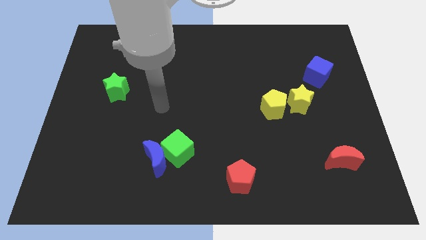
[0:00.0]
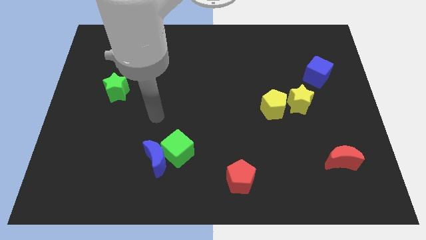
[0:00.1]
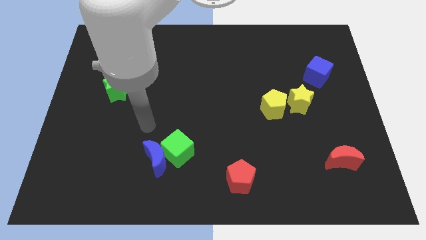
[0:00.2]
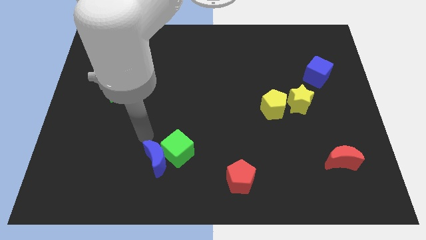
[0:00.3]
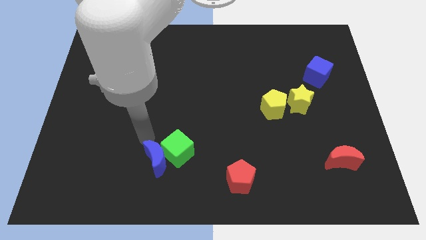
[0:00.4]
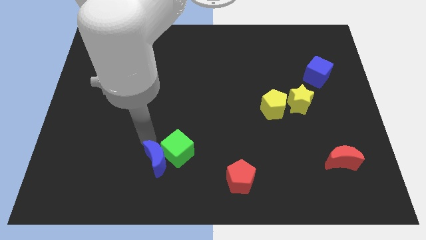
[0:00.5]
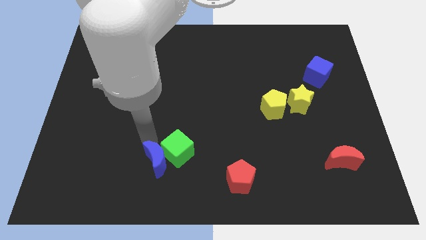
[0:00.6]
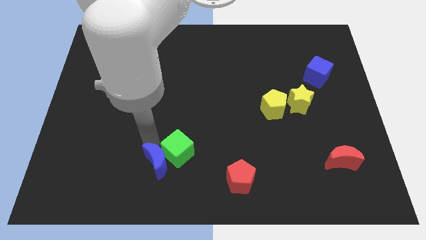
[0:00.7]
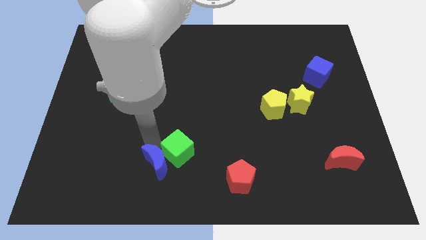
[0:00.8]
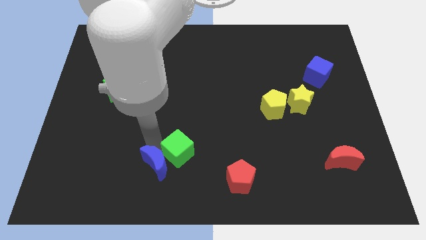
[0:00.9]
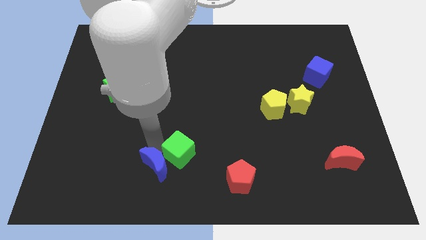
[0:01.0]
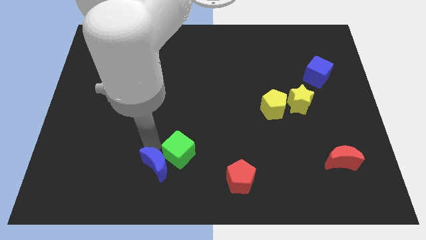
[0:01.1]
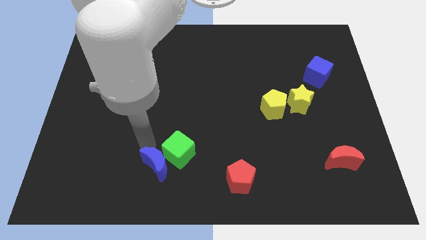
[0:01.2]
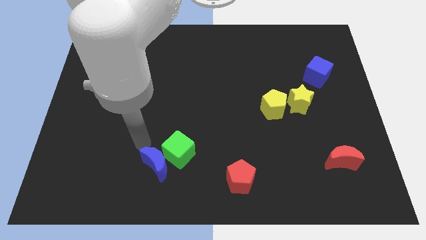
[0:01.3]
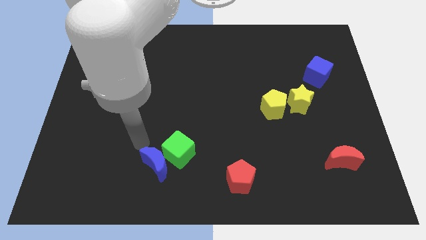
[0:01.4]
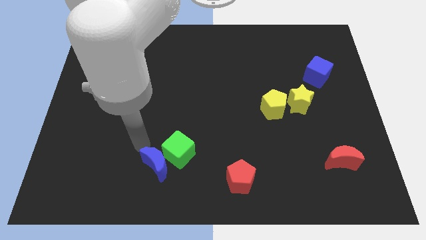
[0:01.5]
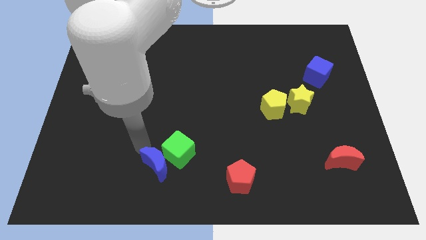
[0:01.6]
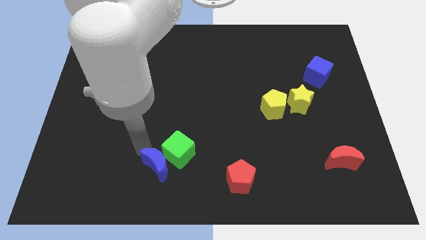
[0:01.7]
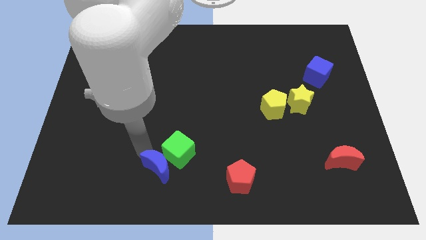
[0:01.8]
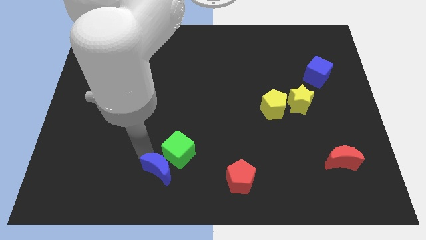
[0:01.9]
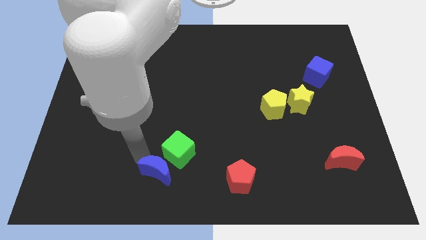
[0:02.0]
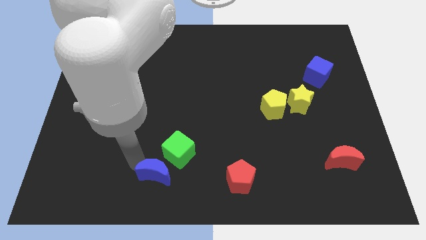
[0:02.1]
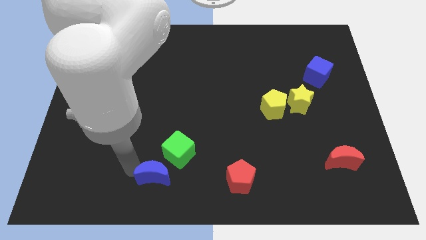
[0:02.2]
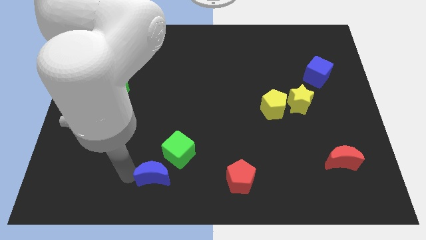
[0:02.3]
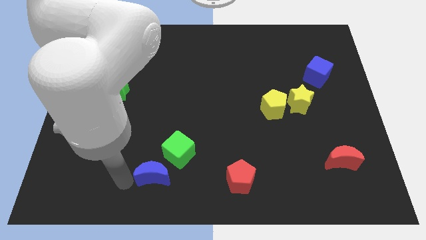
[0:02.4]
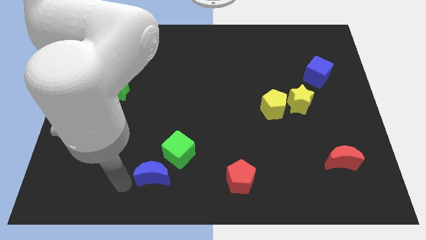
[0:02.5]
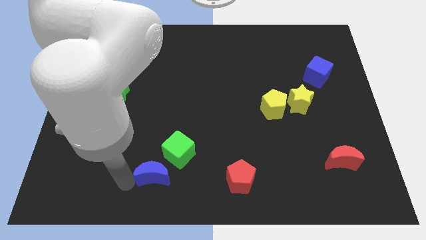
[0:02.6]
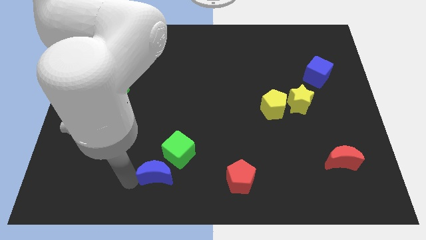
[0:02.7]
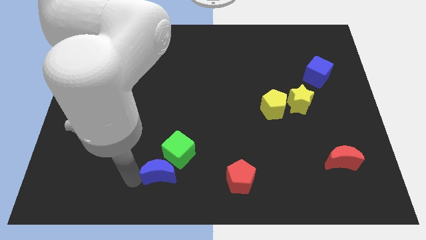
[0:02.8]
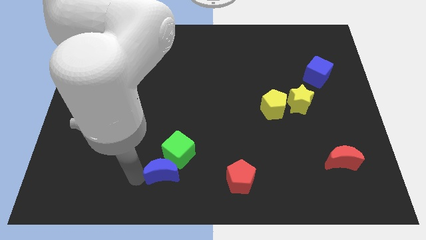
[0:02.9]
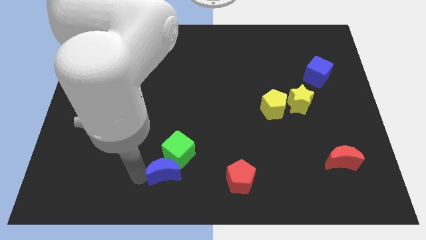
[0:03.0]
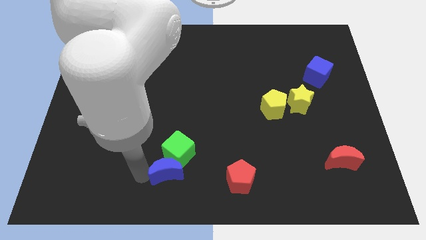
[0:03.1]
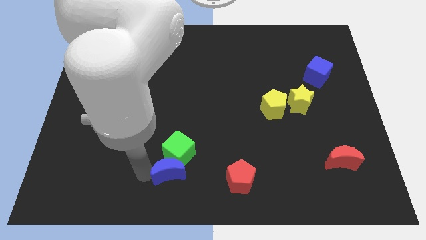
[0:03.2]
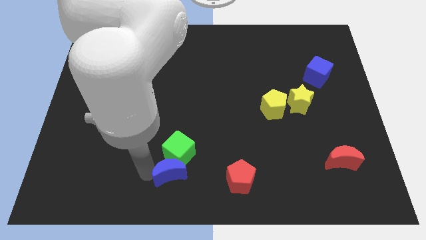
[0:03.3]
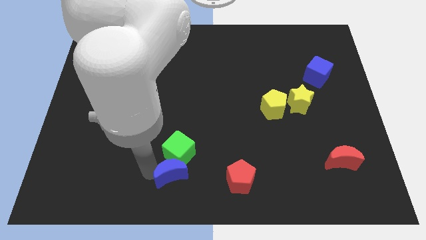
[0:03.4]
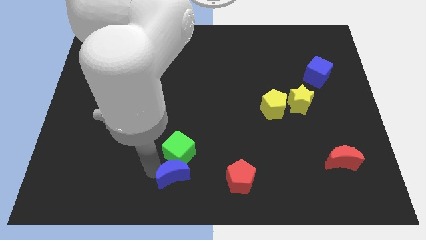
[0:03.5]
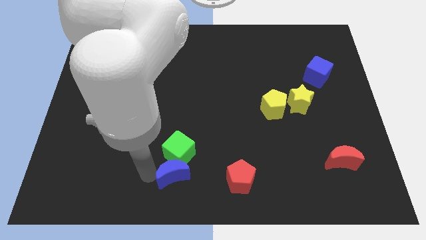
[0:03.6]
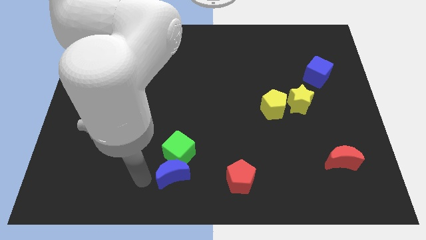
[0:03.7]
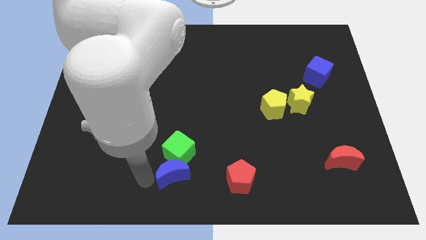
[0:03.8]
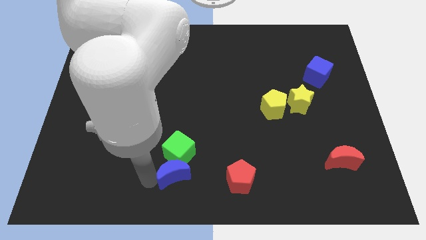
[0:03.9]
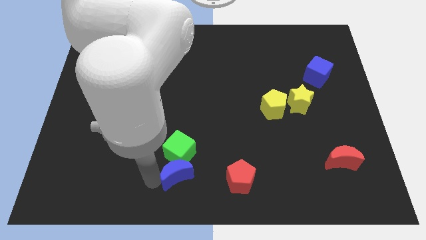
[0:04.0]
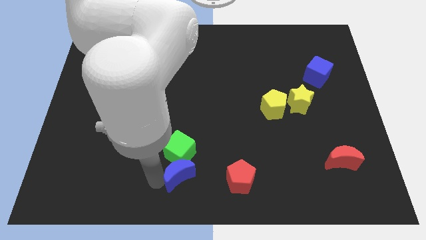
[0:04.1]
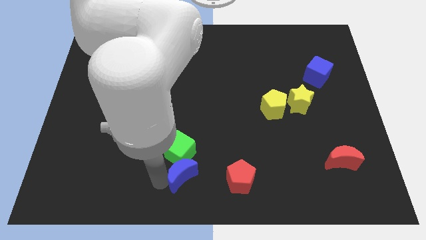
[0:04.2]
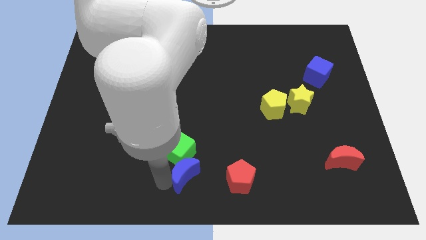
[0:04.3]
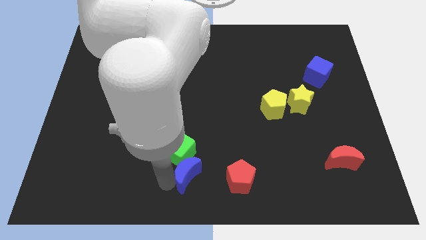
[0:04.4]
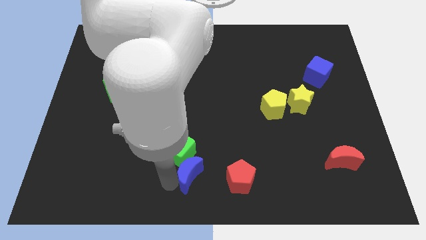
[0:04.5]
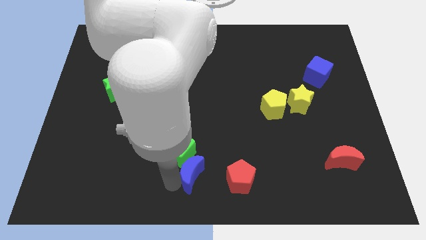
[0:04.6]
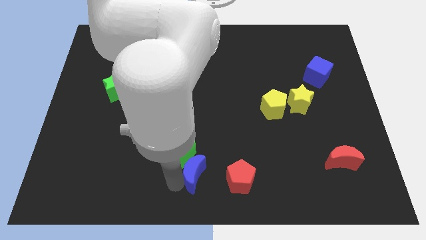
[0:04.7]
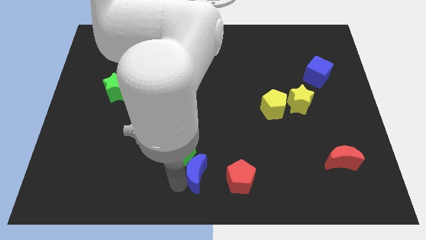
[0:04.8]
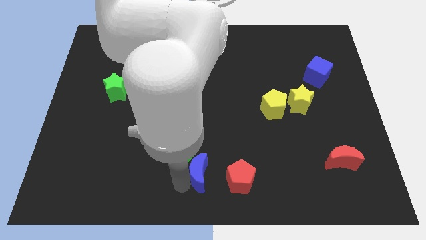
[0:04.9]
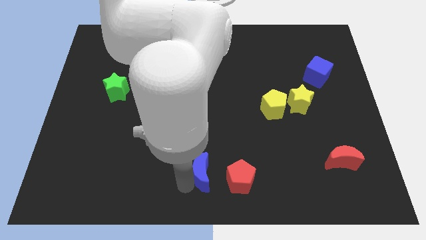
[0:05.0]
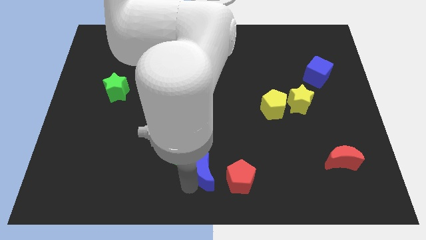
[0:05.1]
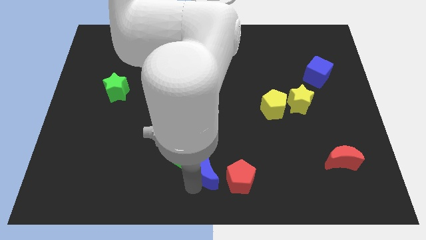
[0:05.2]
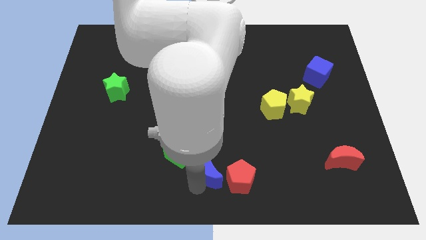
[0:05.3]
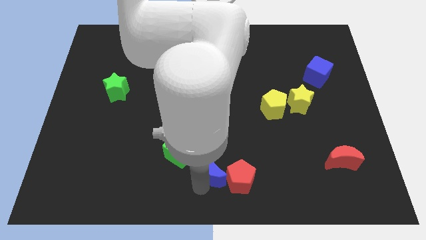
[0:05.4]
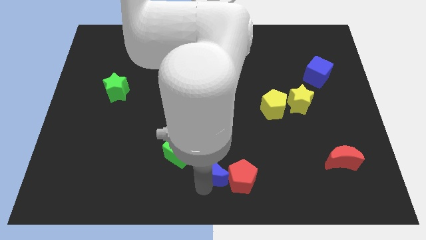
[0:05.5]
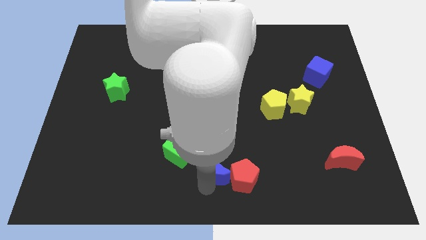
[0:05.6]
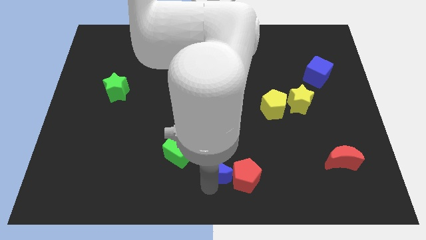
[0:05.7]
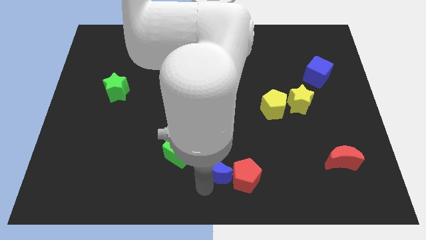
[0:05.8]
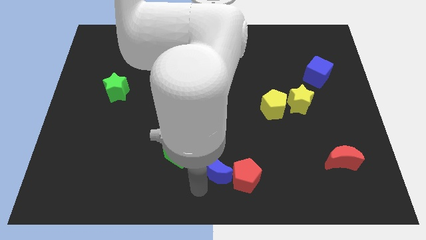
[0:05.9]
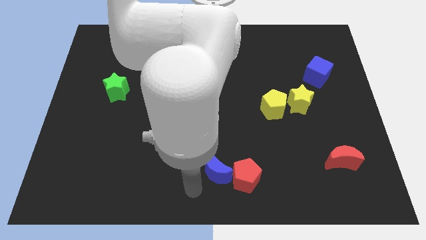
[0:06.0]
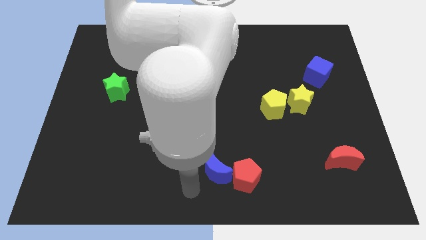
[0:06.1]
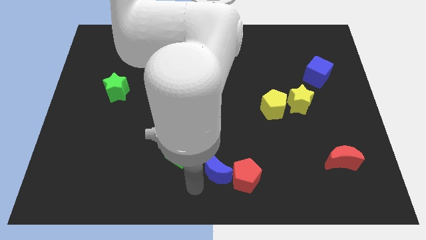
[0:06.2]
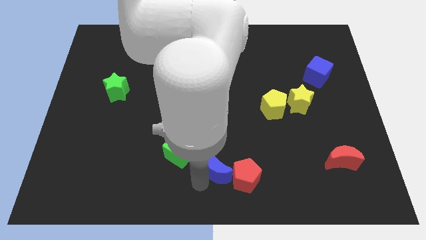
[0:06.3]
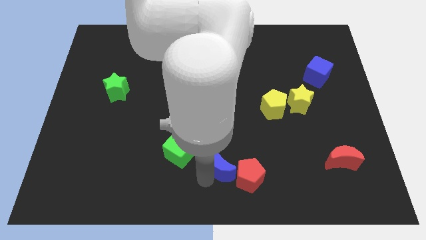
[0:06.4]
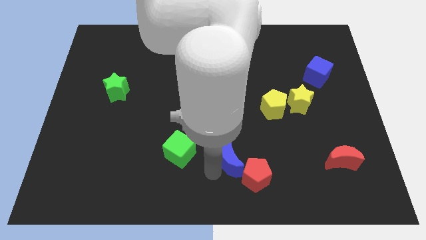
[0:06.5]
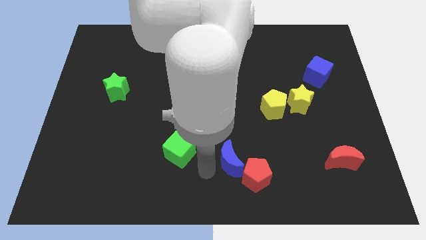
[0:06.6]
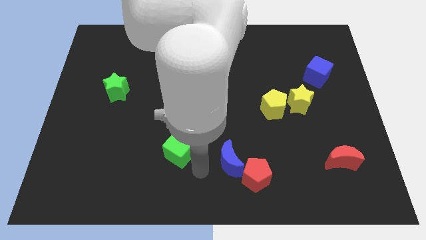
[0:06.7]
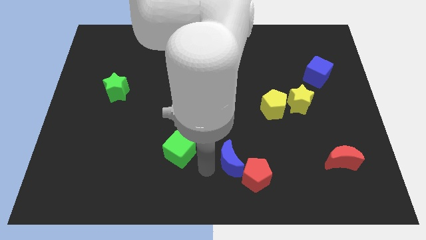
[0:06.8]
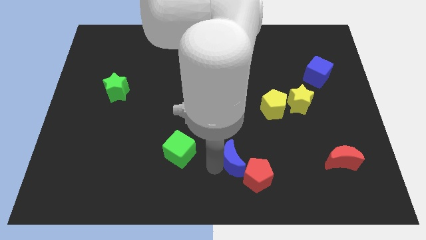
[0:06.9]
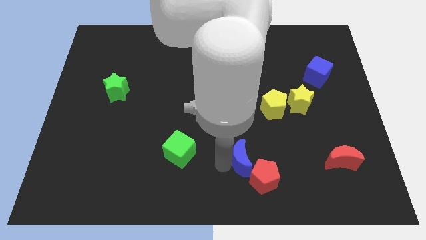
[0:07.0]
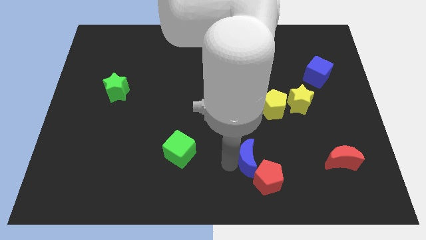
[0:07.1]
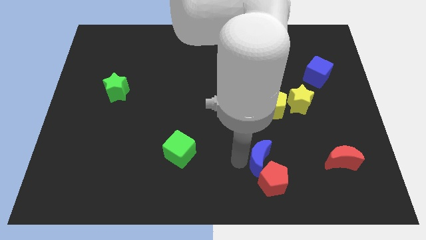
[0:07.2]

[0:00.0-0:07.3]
slide the blue moon right

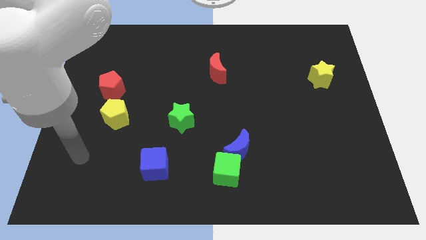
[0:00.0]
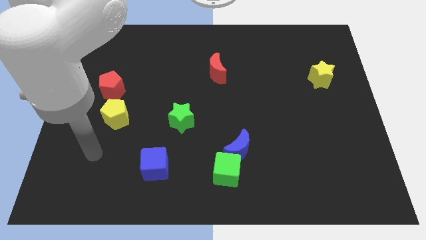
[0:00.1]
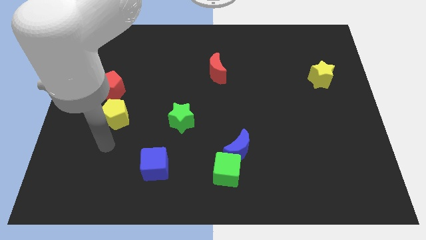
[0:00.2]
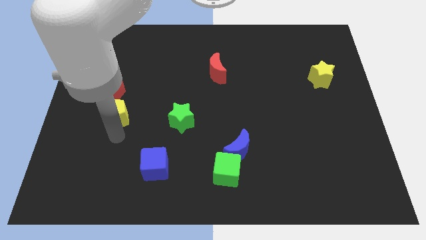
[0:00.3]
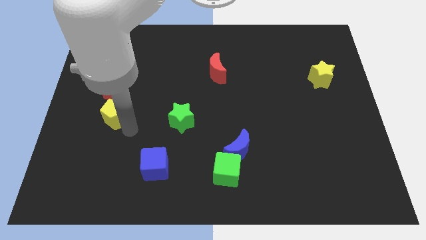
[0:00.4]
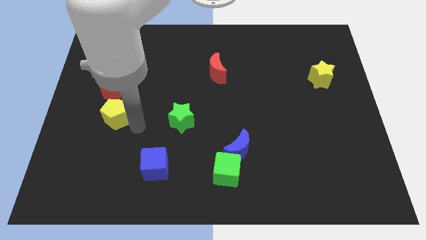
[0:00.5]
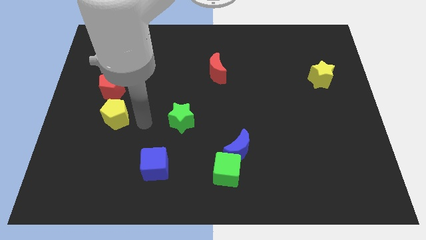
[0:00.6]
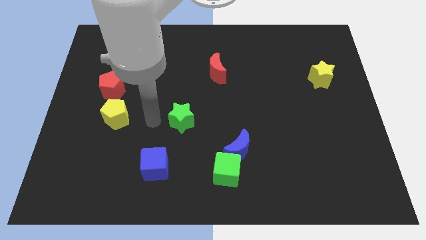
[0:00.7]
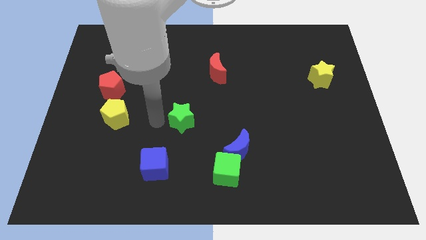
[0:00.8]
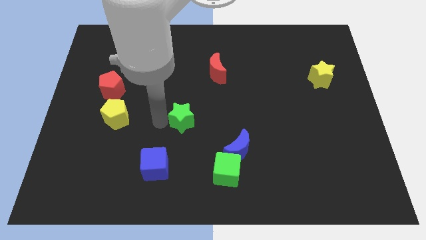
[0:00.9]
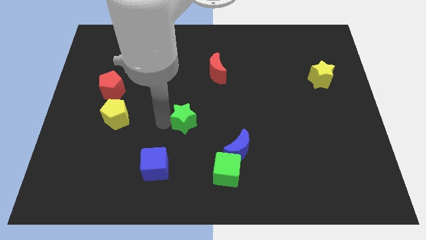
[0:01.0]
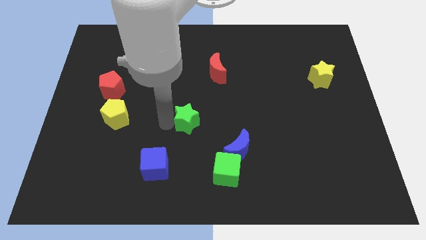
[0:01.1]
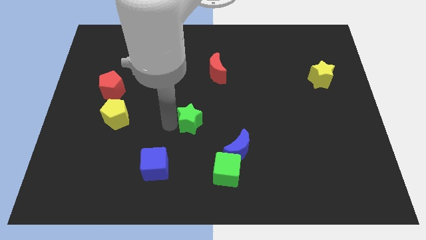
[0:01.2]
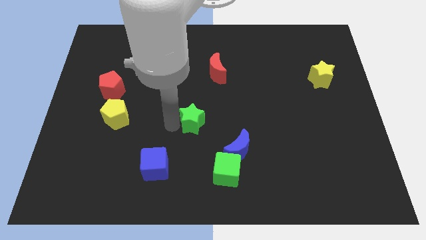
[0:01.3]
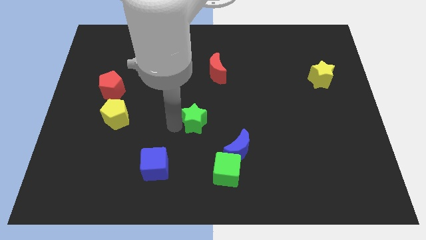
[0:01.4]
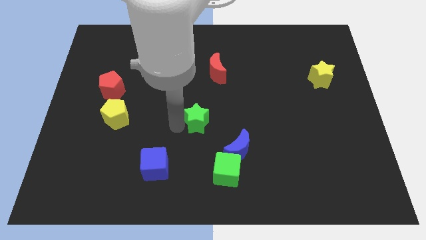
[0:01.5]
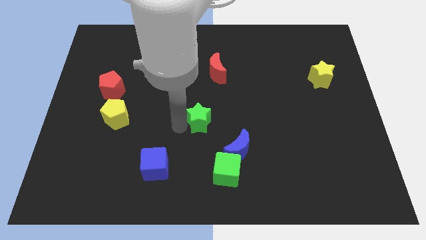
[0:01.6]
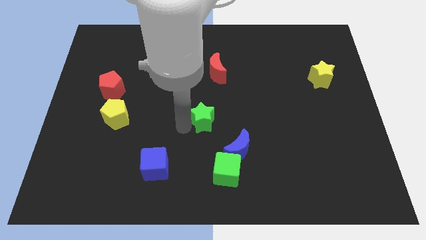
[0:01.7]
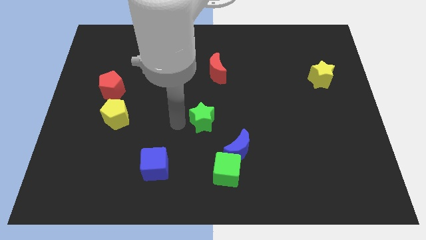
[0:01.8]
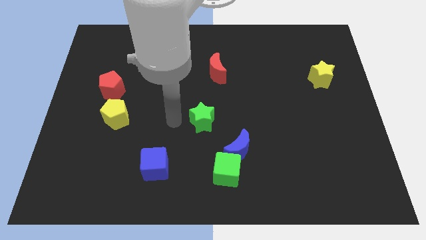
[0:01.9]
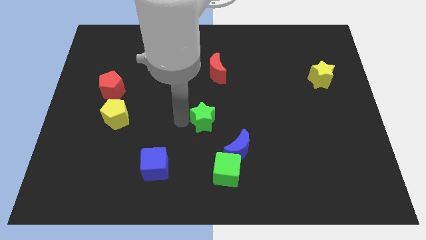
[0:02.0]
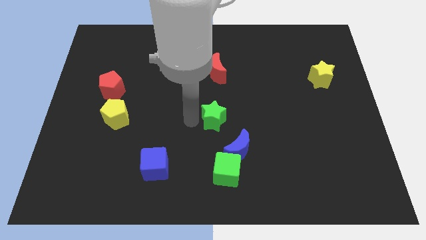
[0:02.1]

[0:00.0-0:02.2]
slightly slide the green star right
